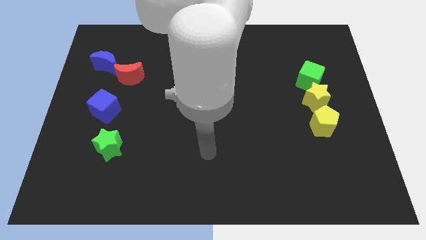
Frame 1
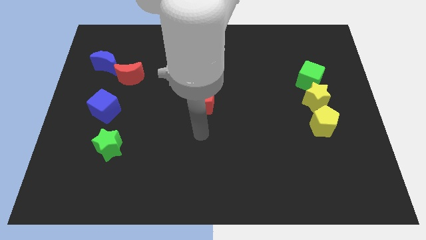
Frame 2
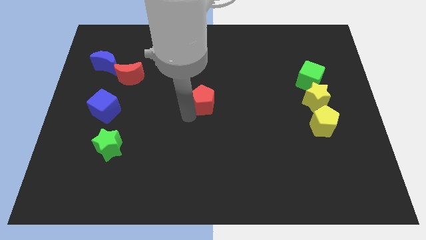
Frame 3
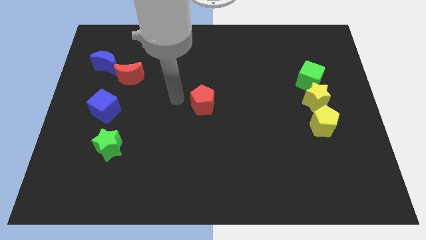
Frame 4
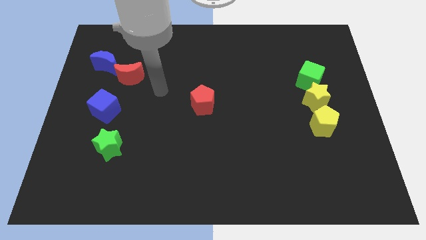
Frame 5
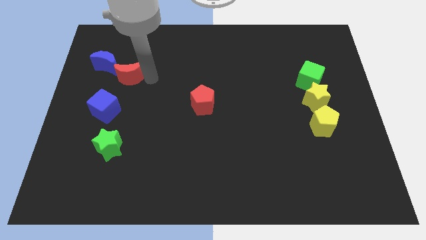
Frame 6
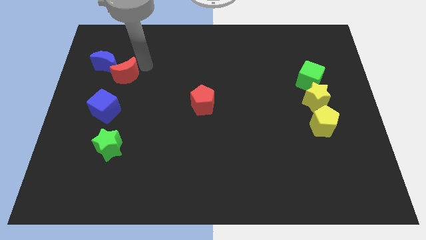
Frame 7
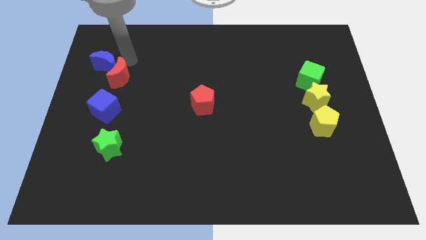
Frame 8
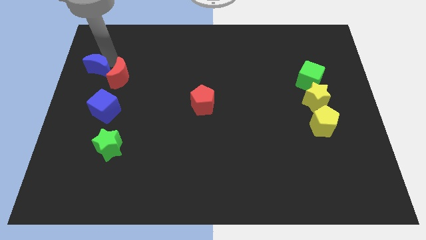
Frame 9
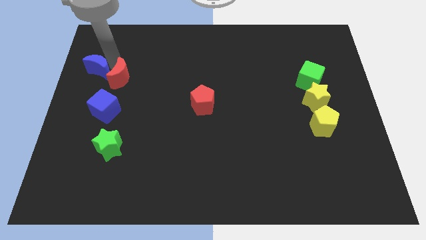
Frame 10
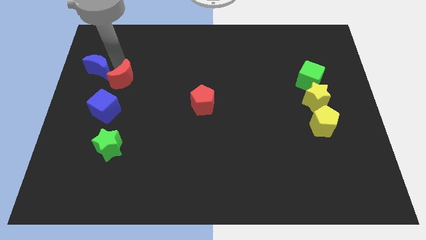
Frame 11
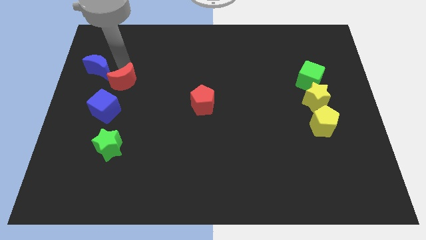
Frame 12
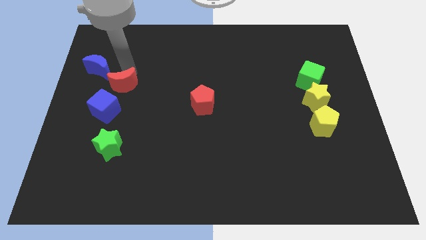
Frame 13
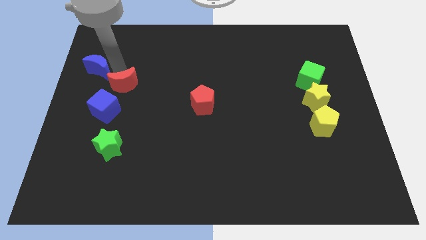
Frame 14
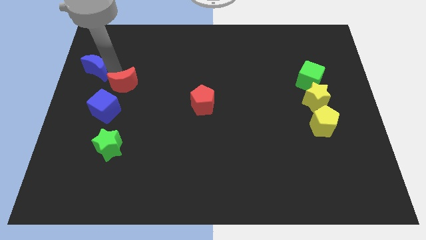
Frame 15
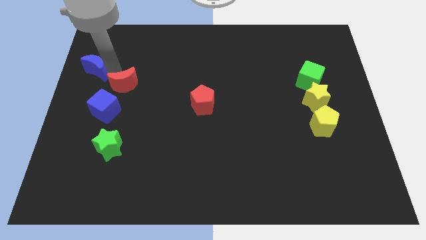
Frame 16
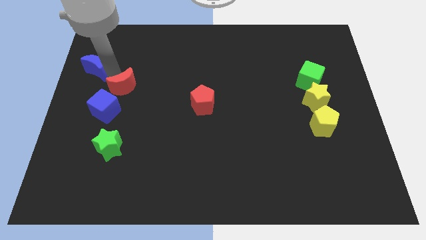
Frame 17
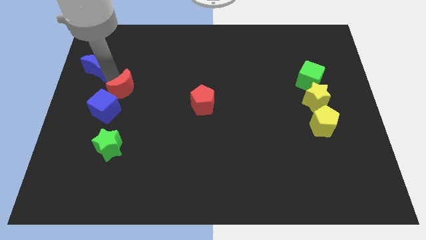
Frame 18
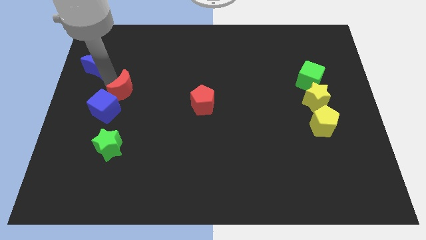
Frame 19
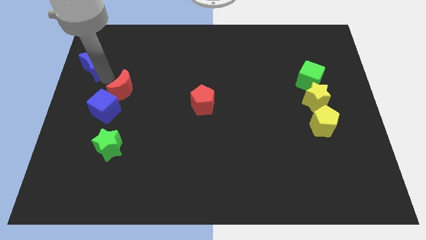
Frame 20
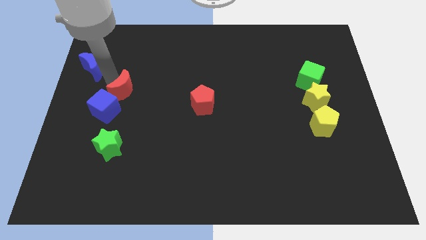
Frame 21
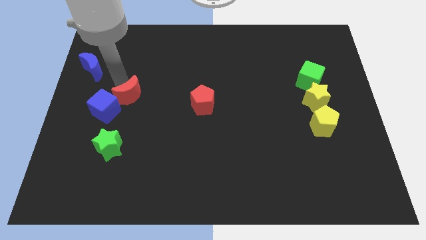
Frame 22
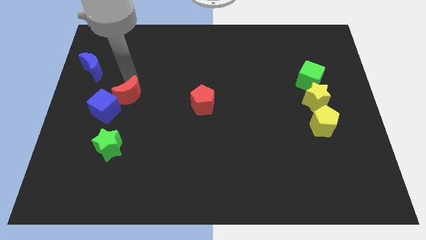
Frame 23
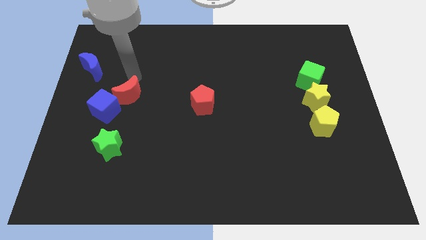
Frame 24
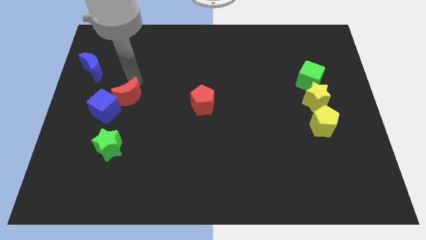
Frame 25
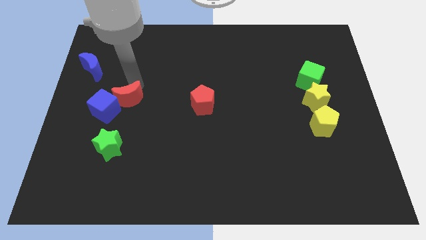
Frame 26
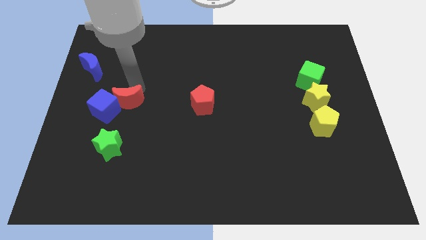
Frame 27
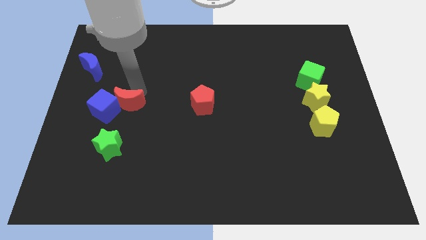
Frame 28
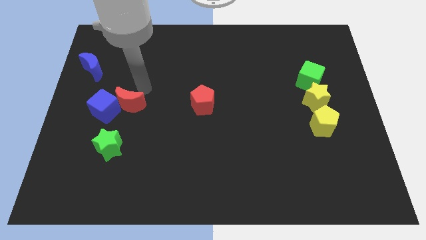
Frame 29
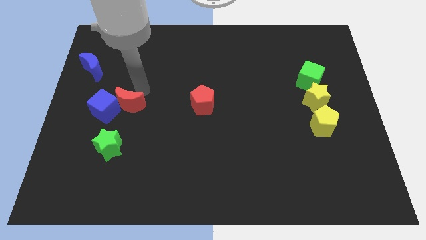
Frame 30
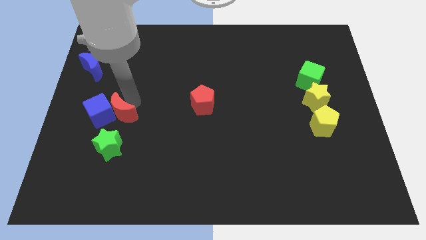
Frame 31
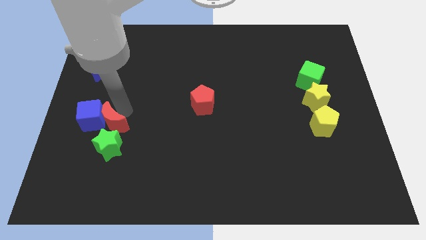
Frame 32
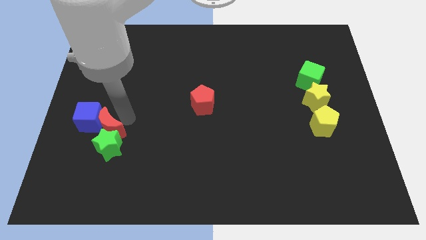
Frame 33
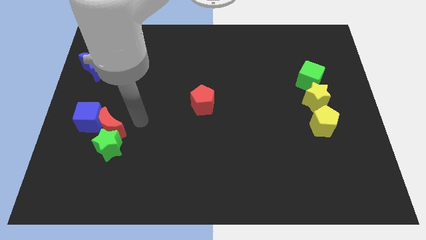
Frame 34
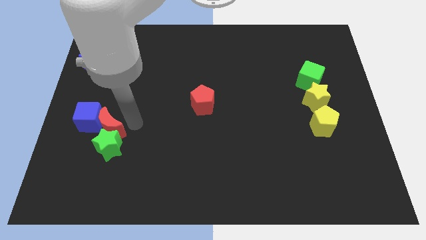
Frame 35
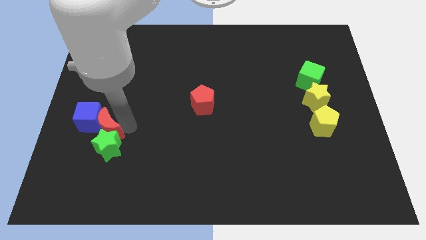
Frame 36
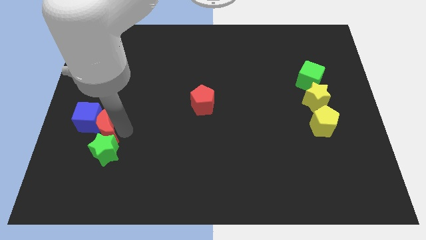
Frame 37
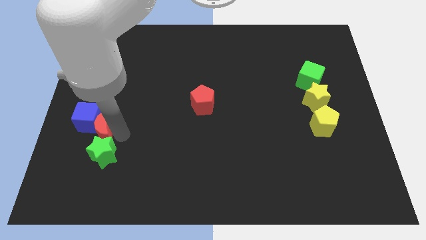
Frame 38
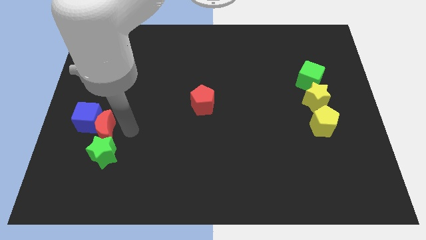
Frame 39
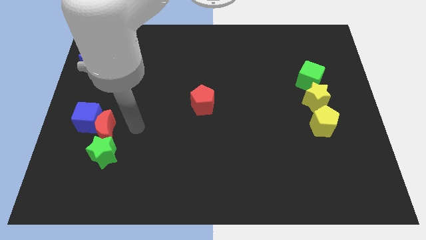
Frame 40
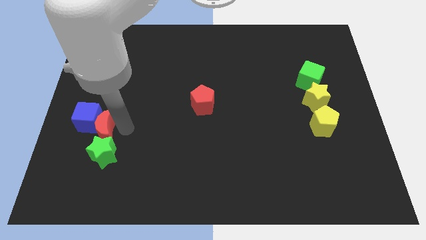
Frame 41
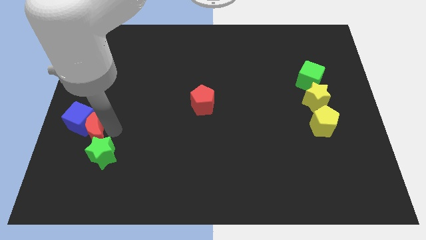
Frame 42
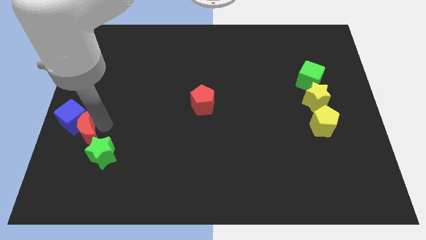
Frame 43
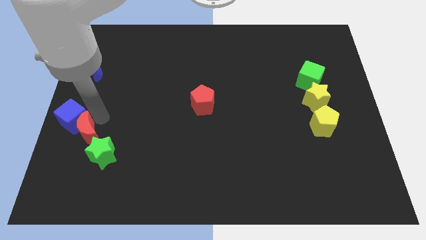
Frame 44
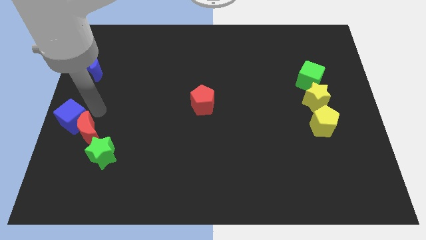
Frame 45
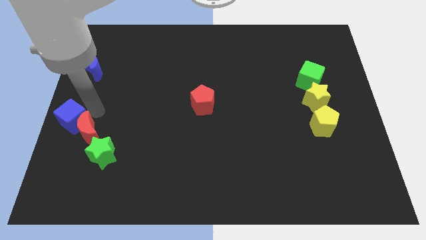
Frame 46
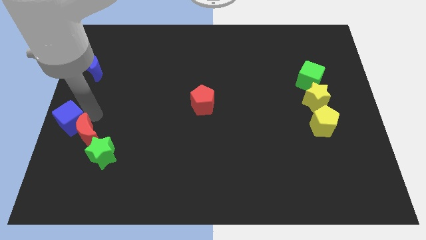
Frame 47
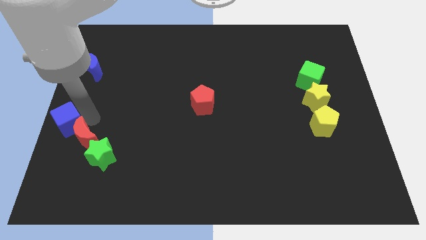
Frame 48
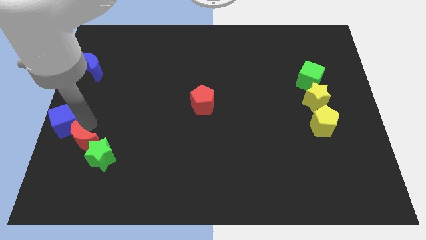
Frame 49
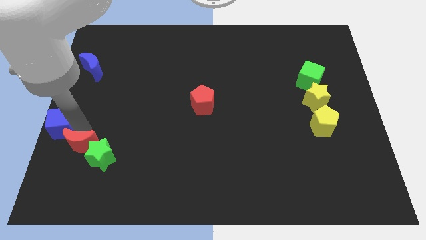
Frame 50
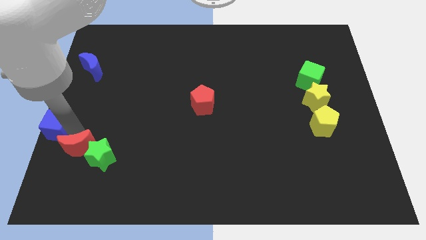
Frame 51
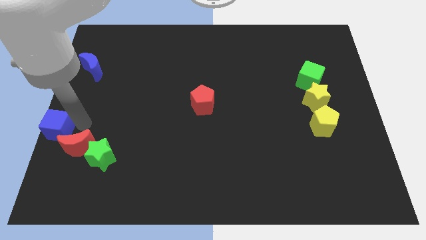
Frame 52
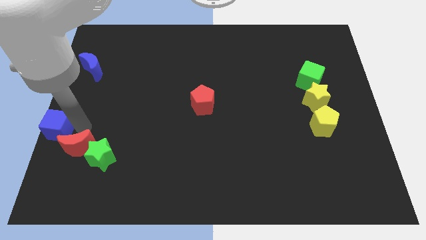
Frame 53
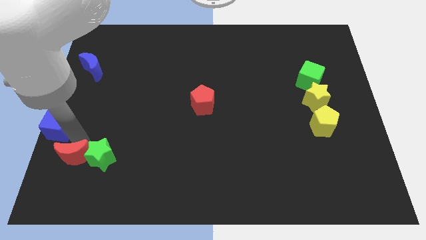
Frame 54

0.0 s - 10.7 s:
put the red moon diagonally down and to the left of the green star

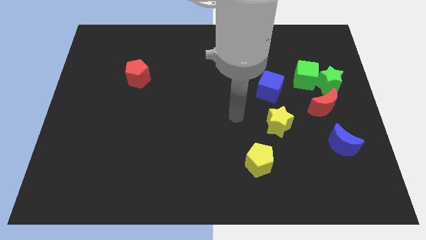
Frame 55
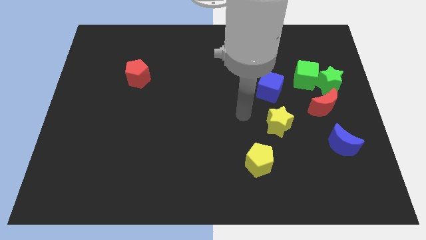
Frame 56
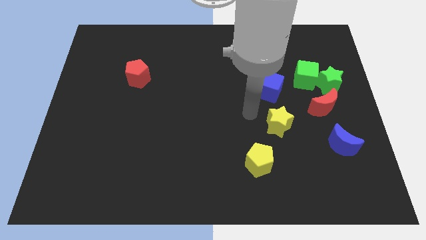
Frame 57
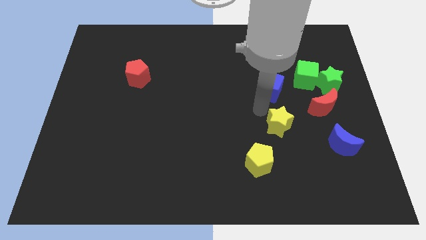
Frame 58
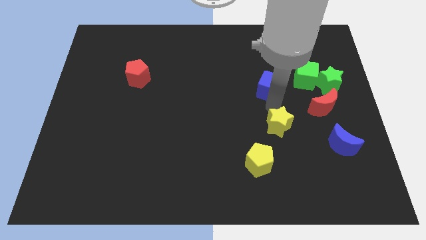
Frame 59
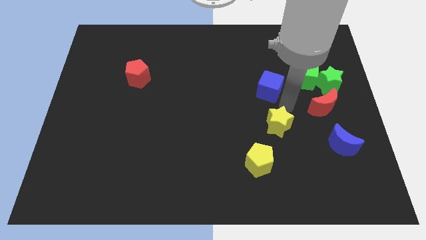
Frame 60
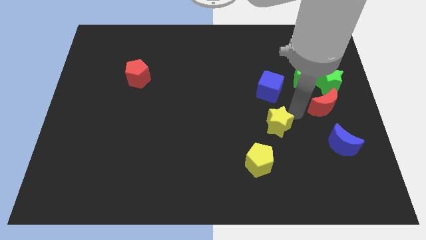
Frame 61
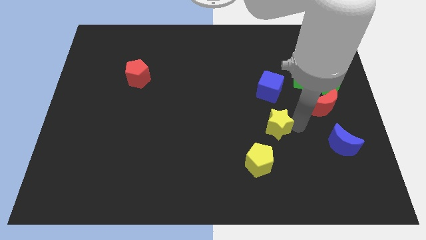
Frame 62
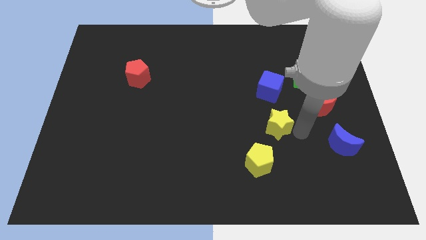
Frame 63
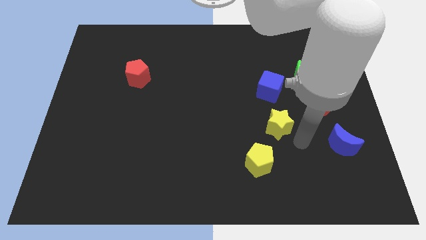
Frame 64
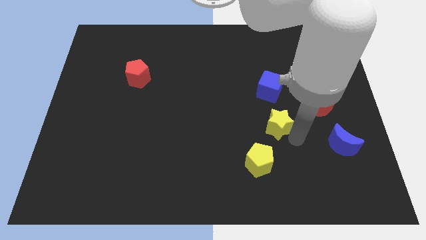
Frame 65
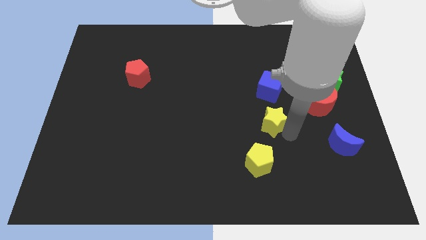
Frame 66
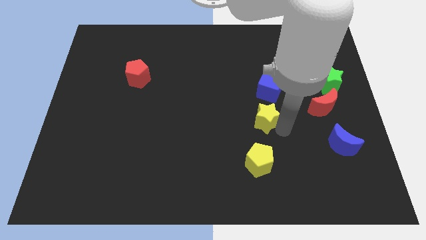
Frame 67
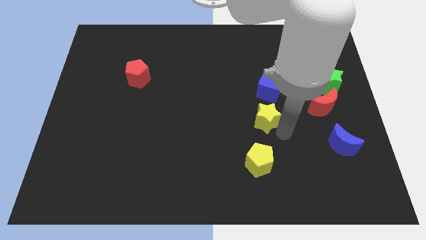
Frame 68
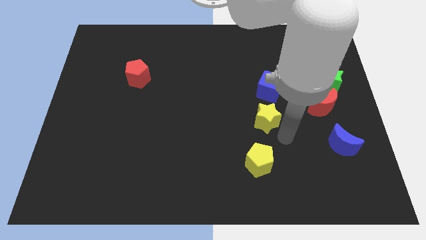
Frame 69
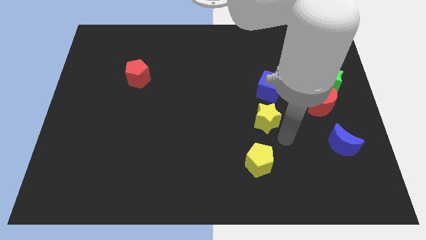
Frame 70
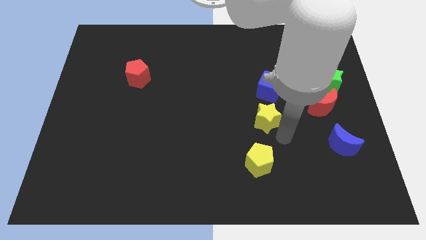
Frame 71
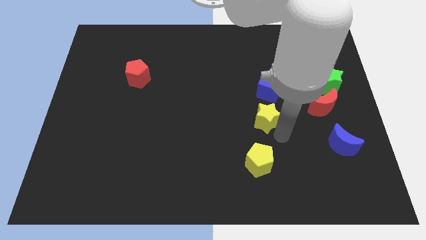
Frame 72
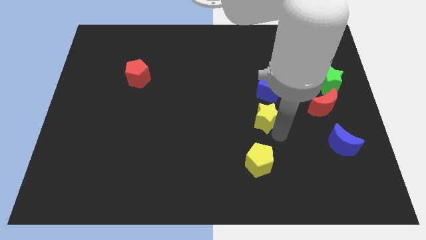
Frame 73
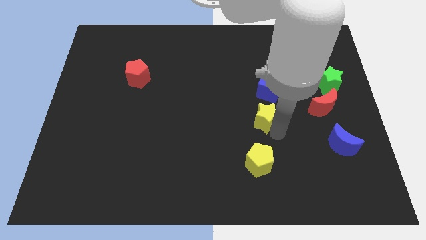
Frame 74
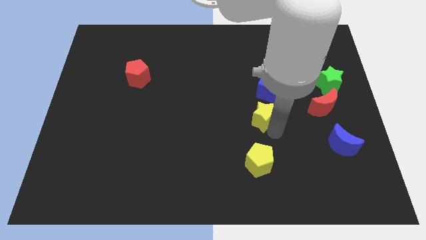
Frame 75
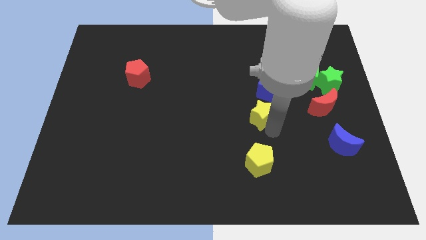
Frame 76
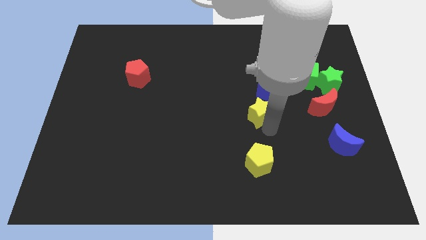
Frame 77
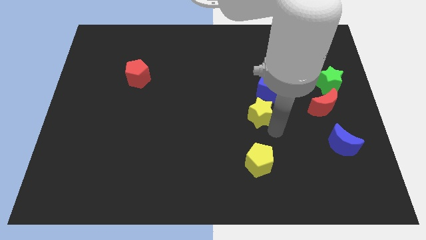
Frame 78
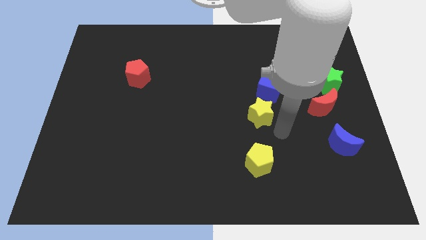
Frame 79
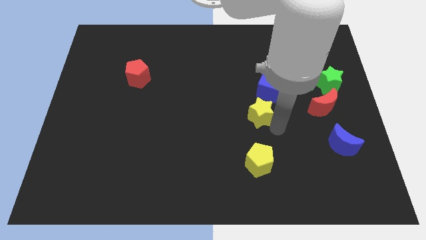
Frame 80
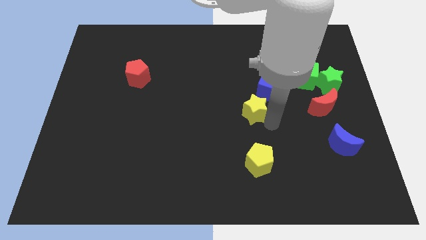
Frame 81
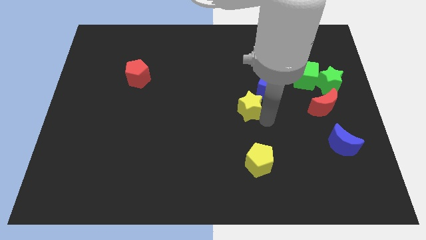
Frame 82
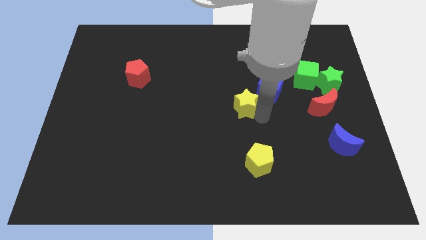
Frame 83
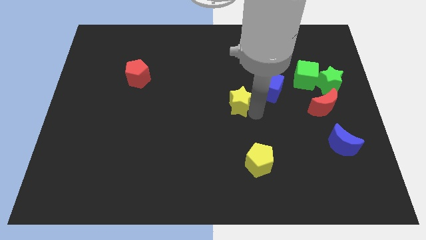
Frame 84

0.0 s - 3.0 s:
move the yellow star to the left side of the blue cube
